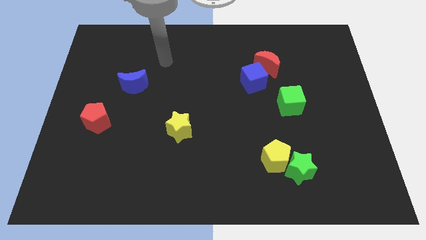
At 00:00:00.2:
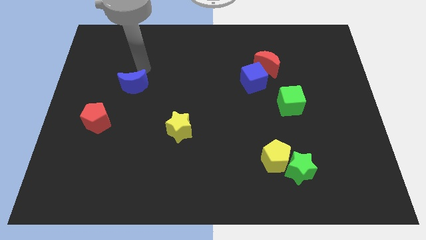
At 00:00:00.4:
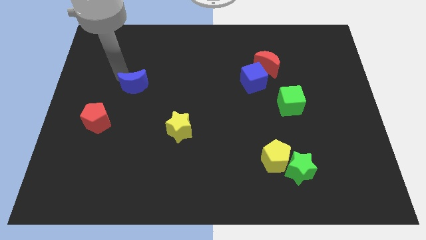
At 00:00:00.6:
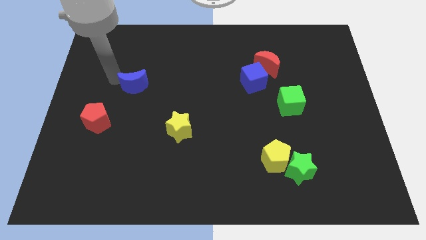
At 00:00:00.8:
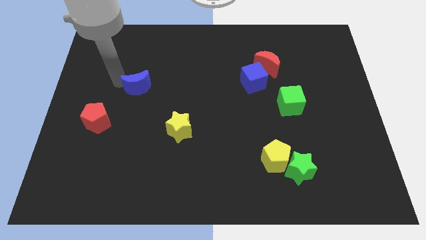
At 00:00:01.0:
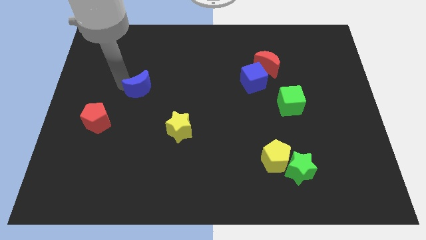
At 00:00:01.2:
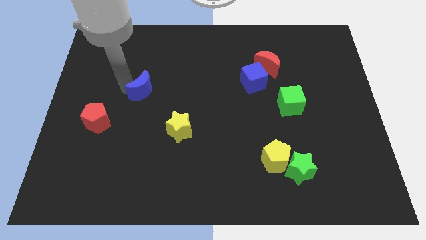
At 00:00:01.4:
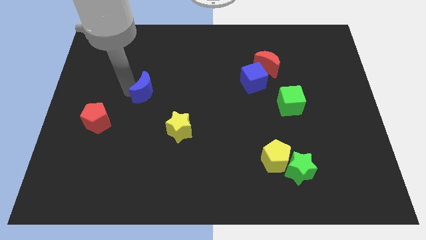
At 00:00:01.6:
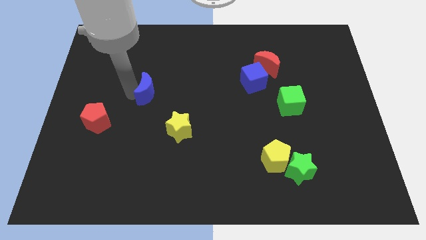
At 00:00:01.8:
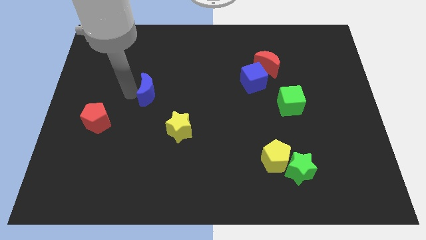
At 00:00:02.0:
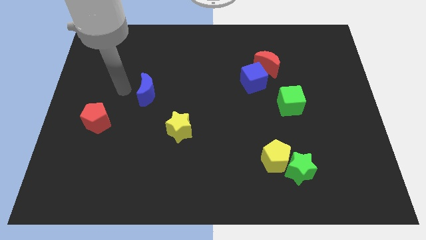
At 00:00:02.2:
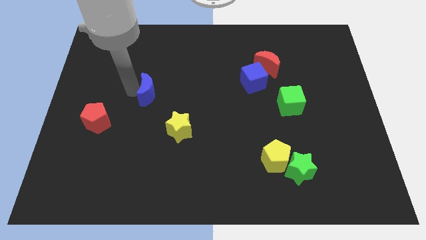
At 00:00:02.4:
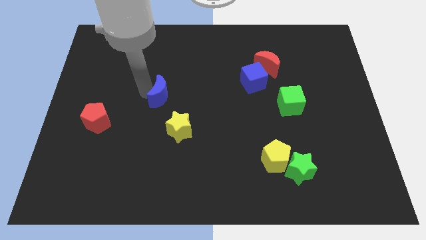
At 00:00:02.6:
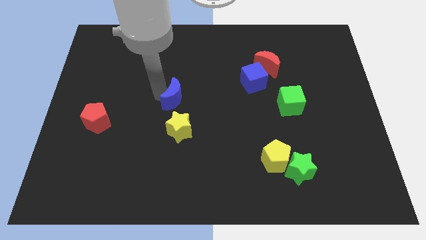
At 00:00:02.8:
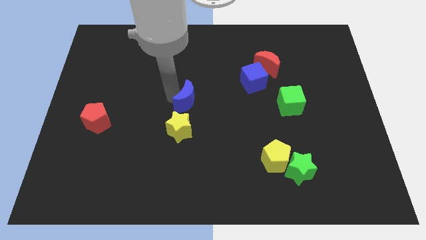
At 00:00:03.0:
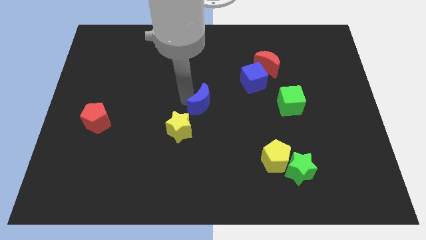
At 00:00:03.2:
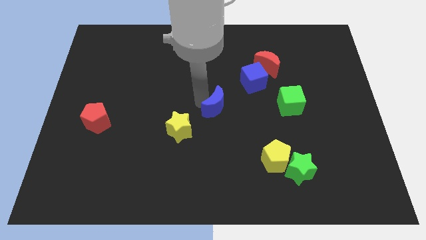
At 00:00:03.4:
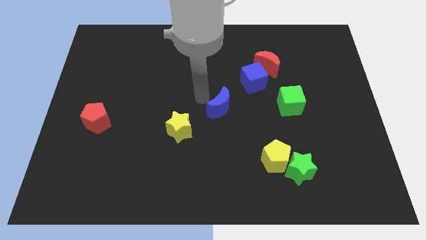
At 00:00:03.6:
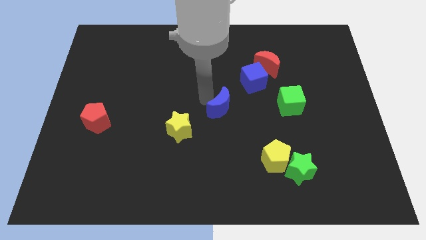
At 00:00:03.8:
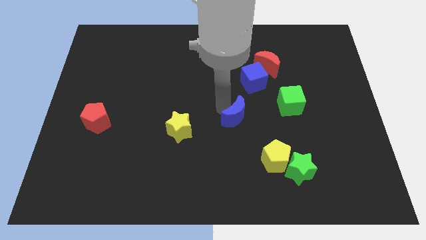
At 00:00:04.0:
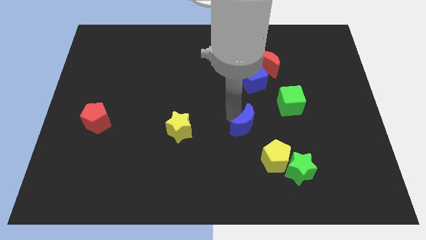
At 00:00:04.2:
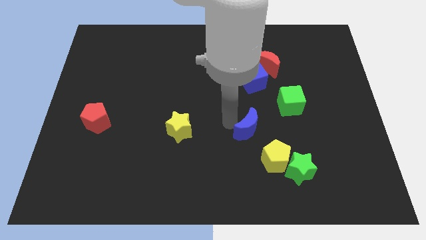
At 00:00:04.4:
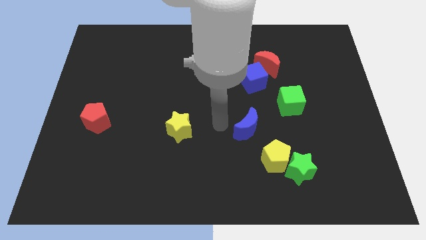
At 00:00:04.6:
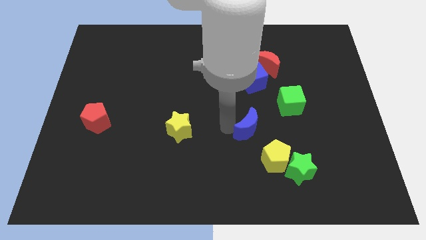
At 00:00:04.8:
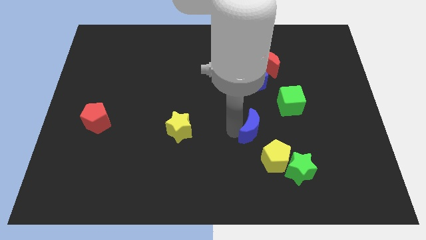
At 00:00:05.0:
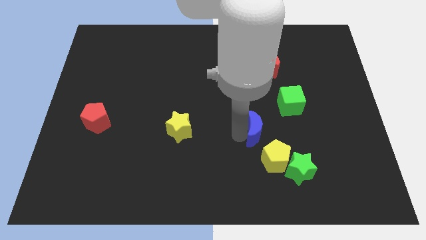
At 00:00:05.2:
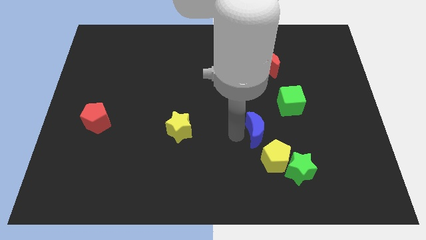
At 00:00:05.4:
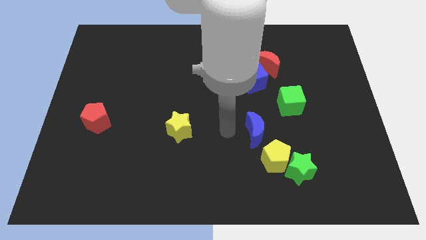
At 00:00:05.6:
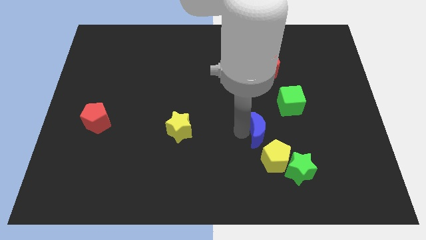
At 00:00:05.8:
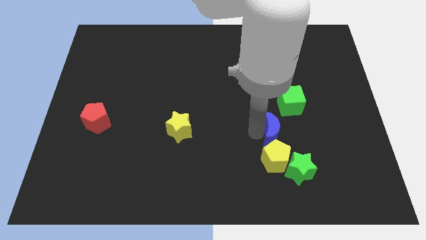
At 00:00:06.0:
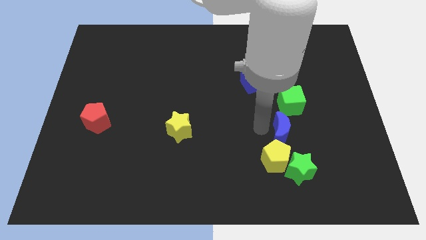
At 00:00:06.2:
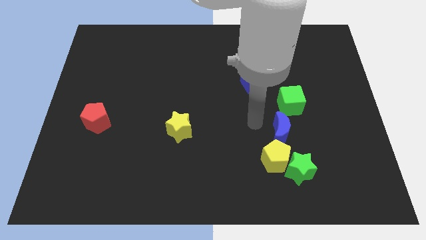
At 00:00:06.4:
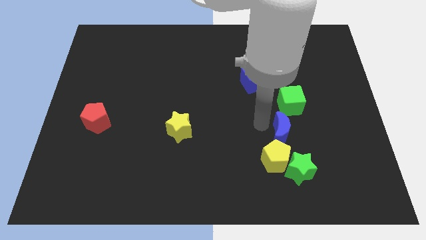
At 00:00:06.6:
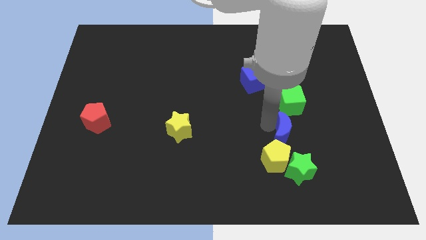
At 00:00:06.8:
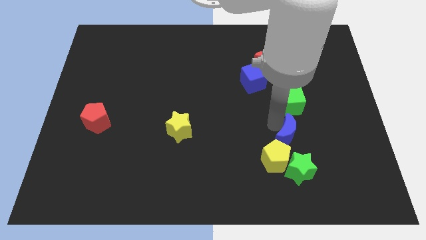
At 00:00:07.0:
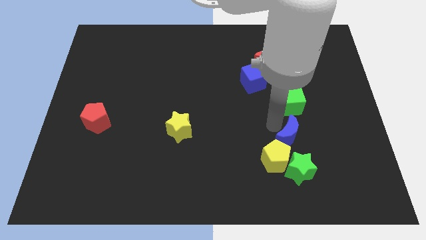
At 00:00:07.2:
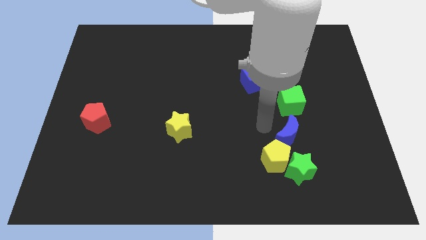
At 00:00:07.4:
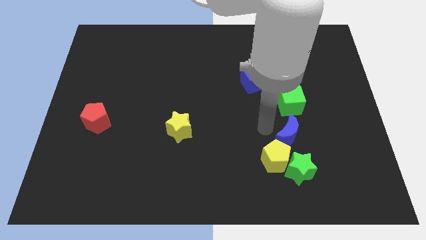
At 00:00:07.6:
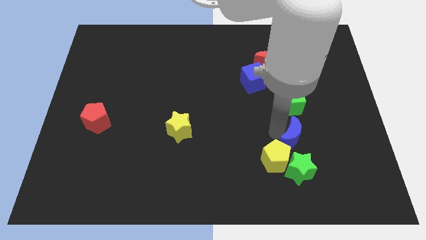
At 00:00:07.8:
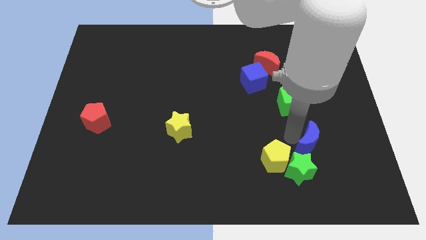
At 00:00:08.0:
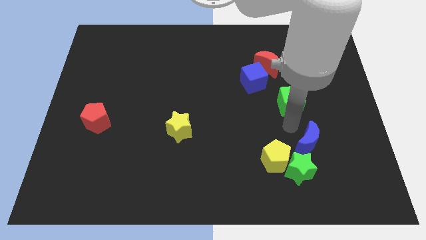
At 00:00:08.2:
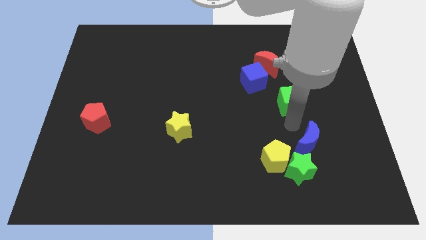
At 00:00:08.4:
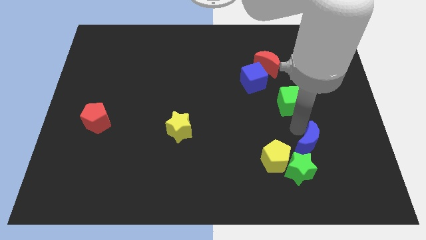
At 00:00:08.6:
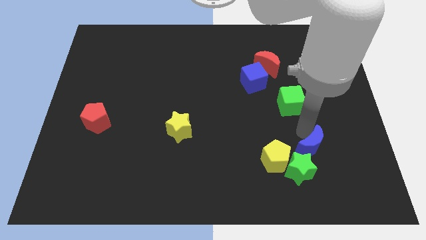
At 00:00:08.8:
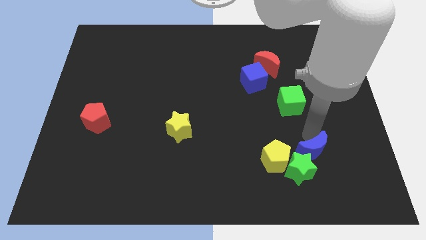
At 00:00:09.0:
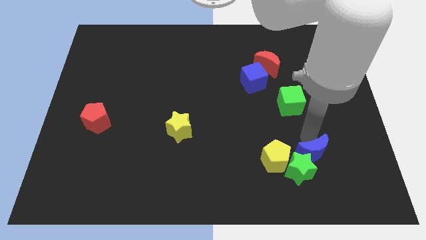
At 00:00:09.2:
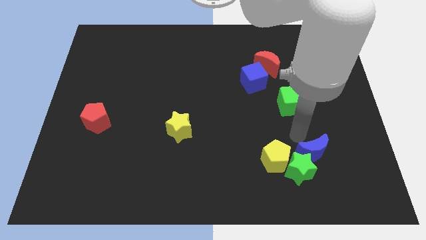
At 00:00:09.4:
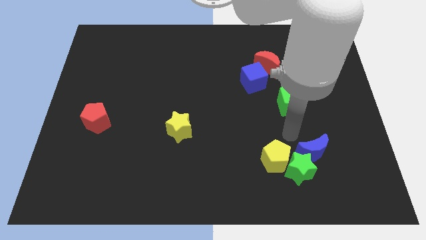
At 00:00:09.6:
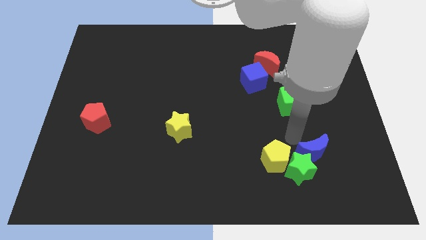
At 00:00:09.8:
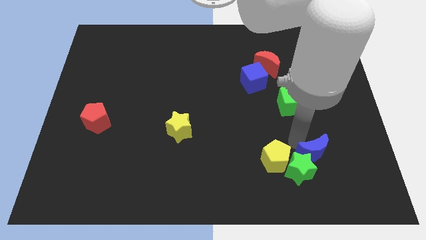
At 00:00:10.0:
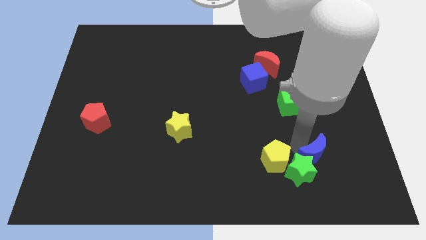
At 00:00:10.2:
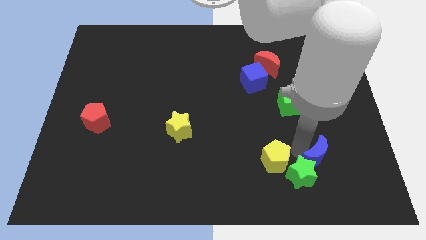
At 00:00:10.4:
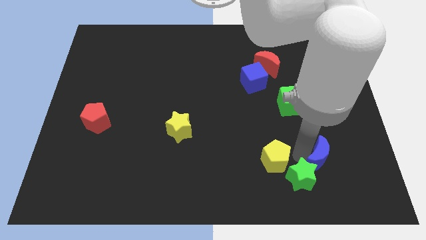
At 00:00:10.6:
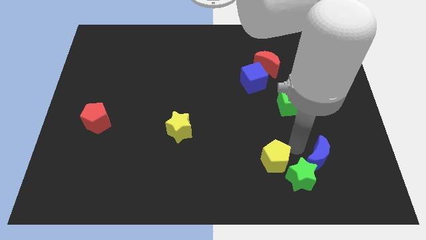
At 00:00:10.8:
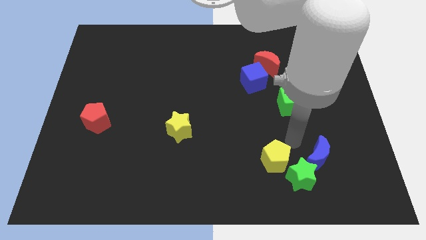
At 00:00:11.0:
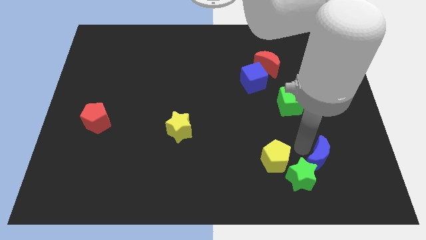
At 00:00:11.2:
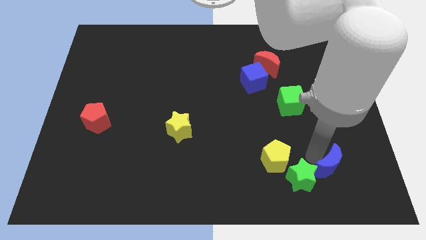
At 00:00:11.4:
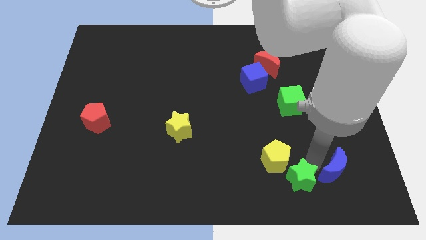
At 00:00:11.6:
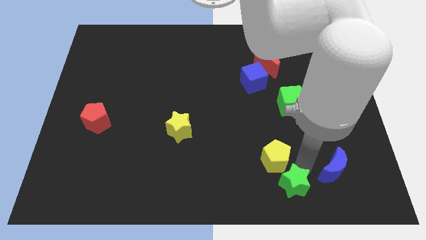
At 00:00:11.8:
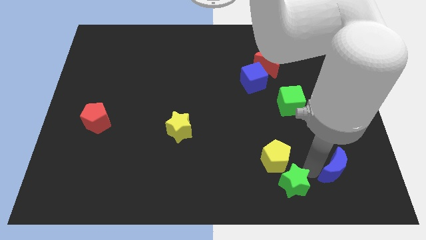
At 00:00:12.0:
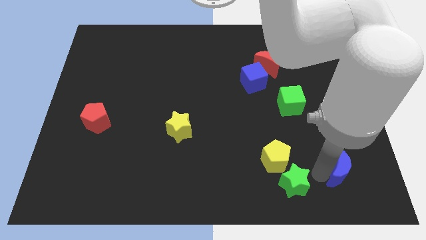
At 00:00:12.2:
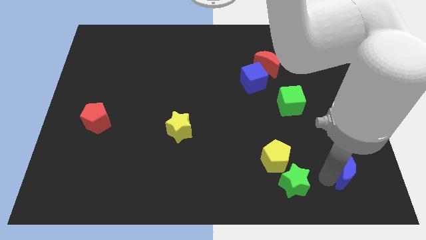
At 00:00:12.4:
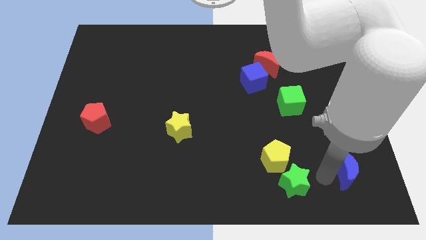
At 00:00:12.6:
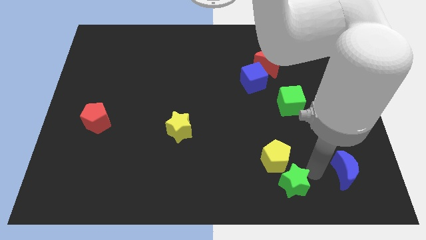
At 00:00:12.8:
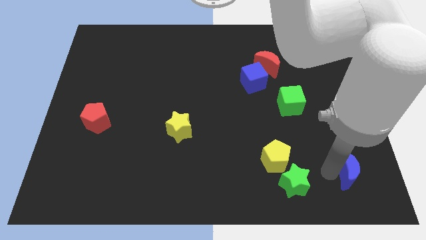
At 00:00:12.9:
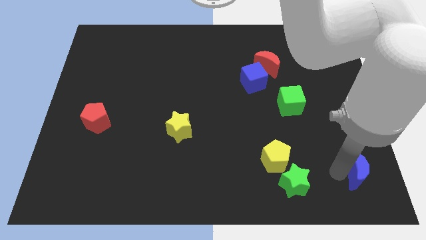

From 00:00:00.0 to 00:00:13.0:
put the blue moon to the bottom right corner
